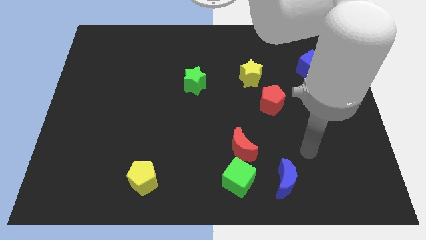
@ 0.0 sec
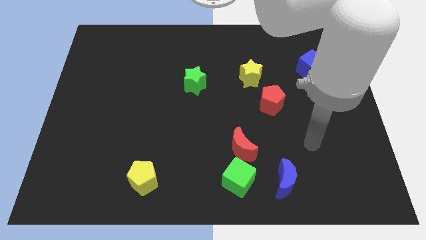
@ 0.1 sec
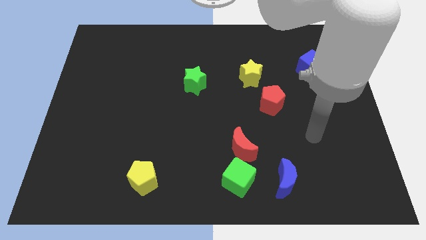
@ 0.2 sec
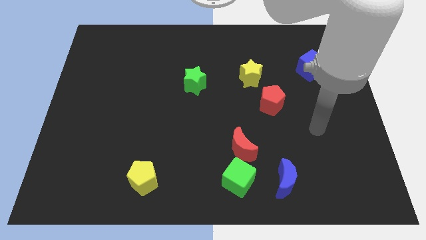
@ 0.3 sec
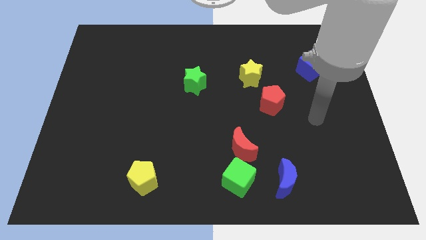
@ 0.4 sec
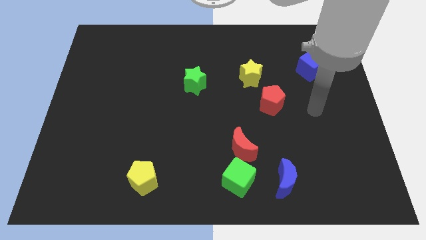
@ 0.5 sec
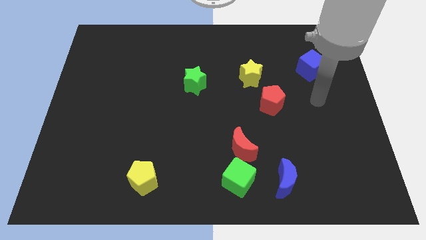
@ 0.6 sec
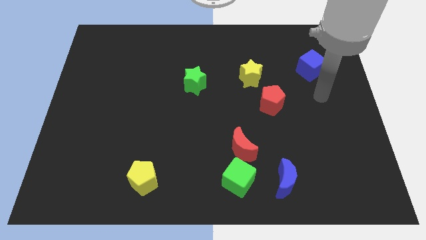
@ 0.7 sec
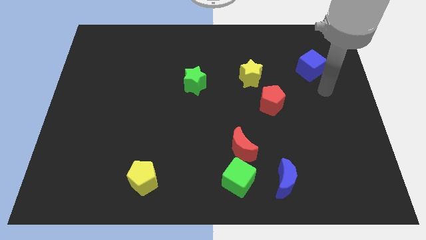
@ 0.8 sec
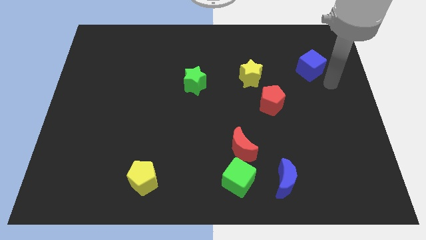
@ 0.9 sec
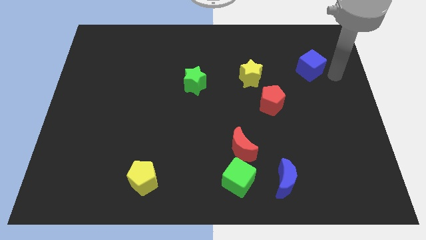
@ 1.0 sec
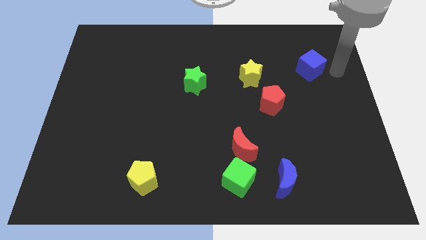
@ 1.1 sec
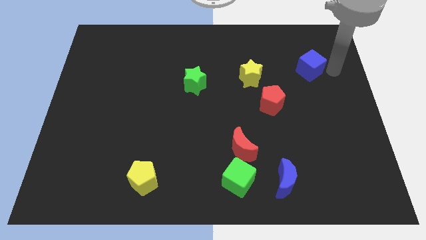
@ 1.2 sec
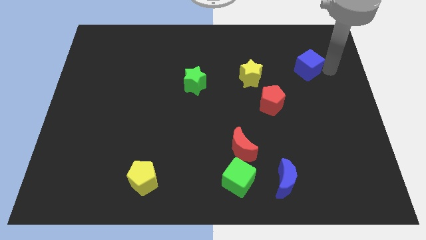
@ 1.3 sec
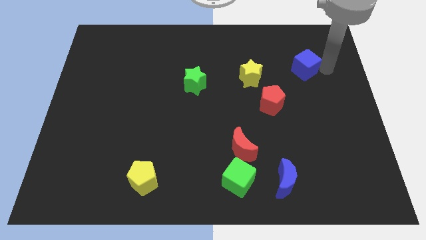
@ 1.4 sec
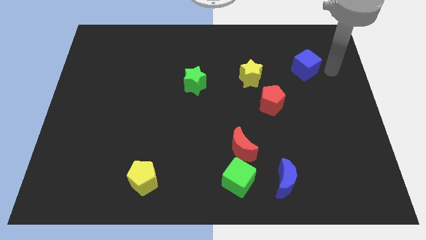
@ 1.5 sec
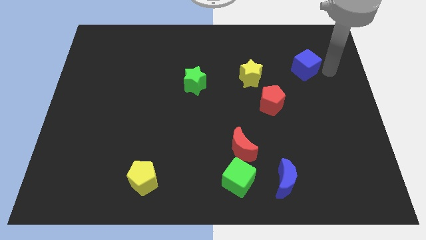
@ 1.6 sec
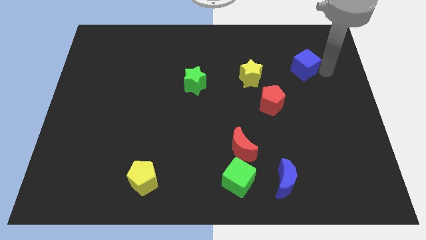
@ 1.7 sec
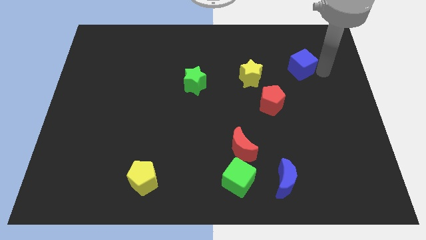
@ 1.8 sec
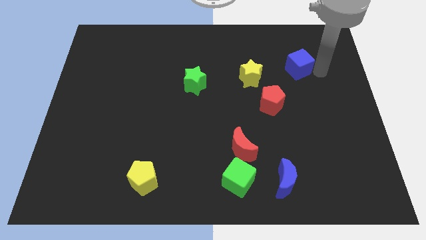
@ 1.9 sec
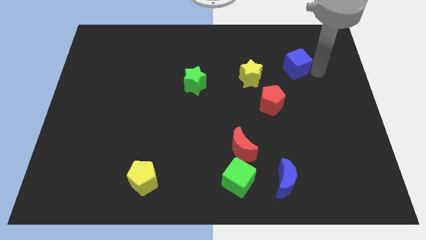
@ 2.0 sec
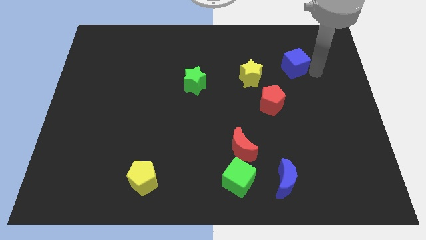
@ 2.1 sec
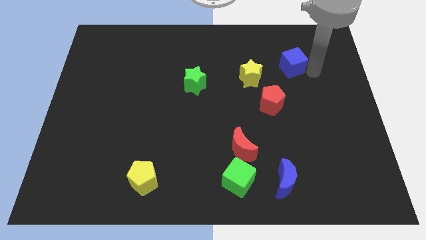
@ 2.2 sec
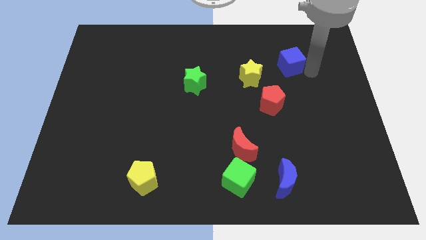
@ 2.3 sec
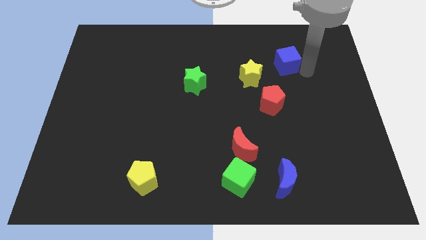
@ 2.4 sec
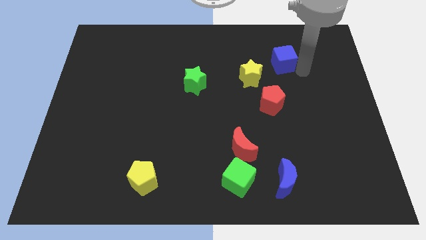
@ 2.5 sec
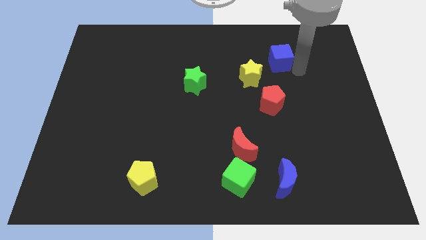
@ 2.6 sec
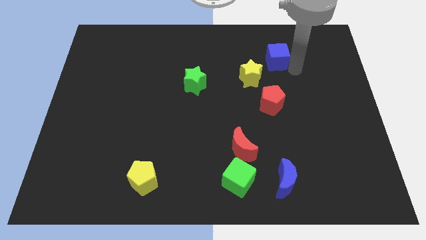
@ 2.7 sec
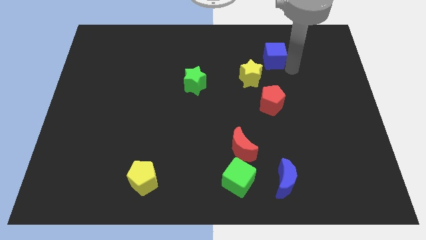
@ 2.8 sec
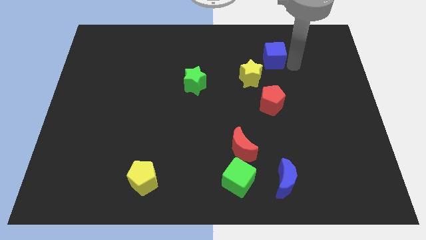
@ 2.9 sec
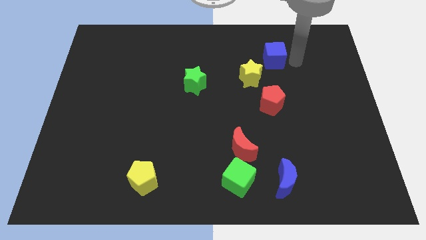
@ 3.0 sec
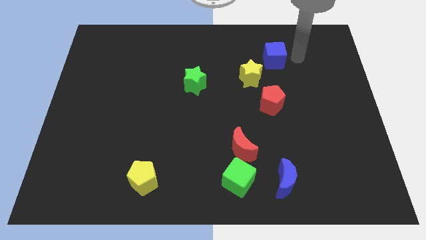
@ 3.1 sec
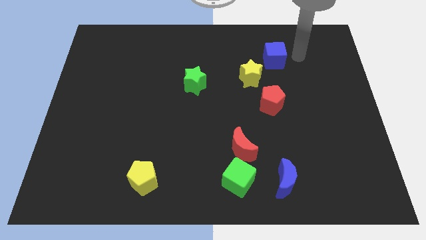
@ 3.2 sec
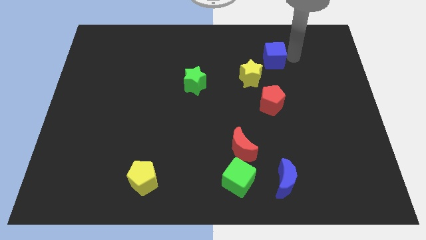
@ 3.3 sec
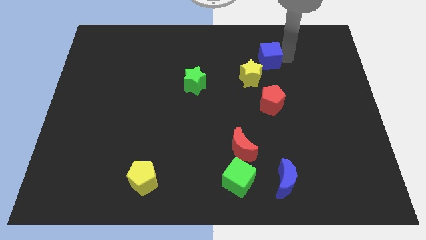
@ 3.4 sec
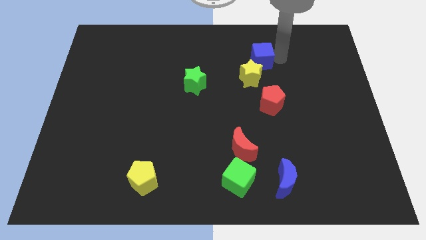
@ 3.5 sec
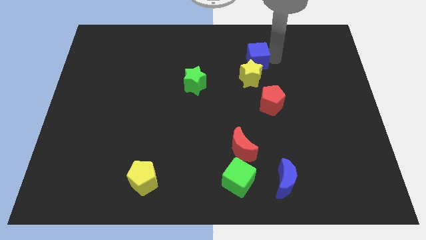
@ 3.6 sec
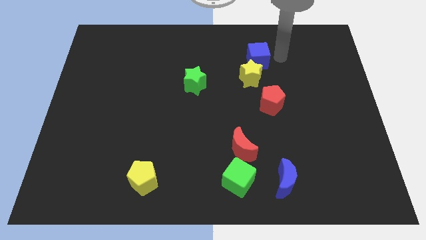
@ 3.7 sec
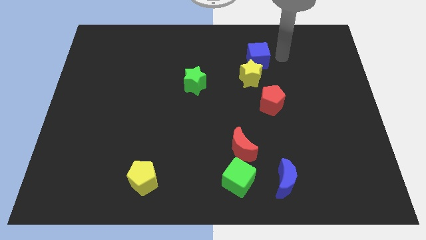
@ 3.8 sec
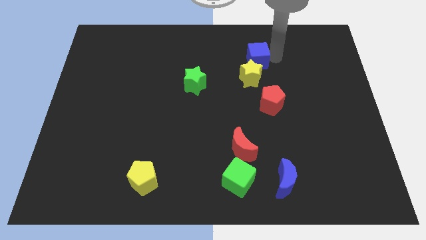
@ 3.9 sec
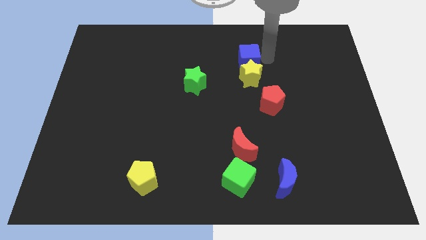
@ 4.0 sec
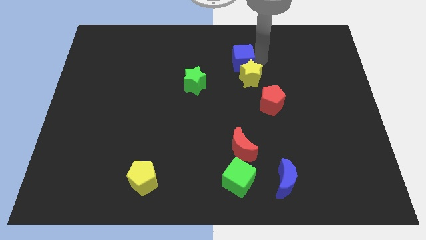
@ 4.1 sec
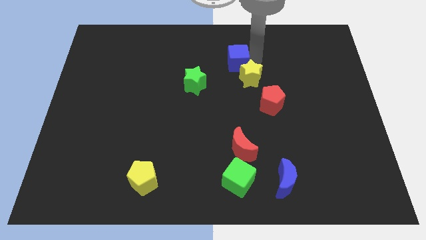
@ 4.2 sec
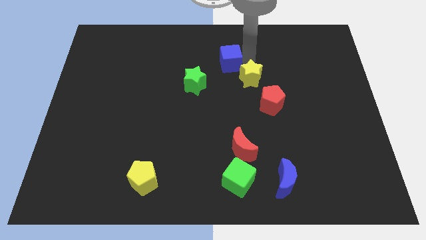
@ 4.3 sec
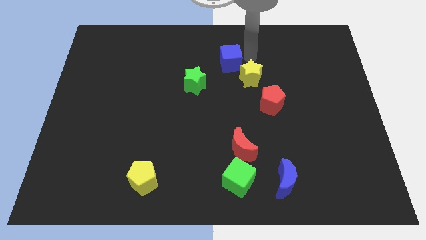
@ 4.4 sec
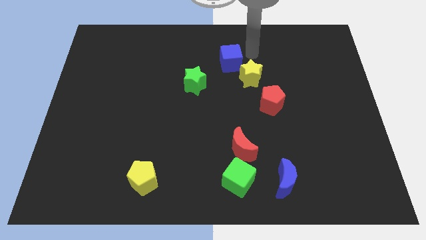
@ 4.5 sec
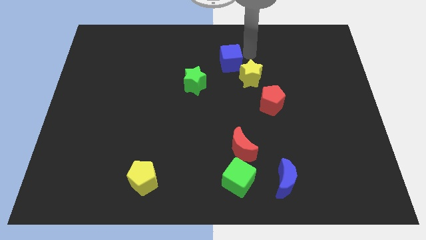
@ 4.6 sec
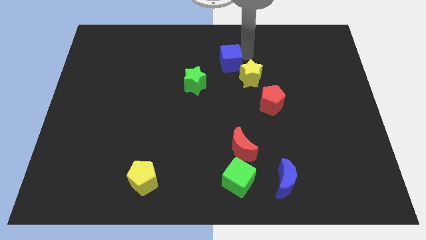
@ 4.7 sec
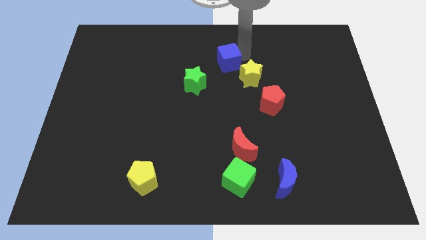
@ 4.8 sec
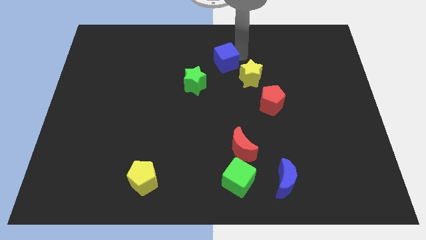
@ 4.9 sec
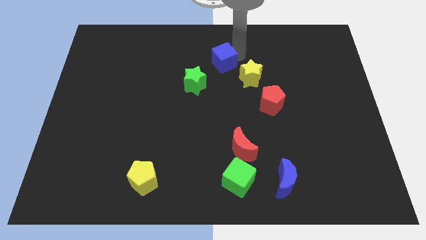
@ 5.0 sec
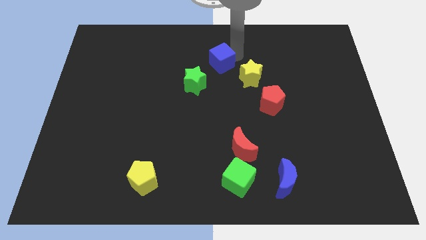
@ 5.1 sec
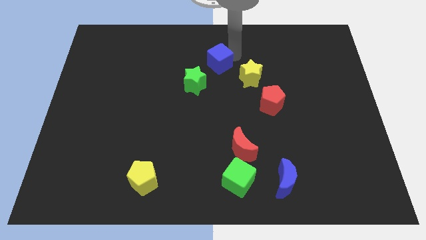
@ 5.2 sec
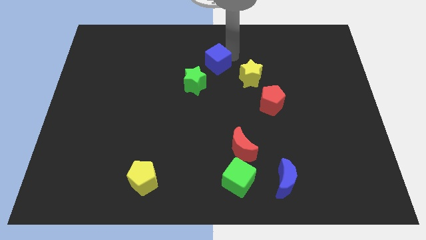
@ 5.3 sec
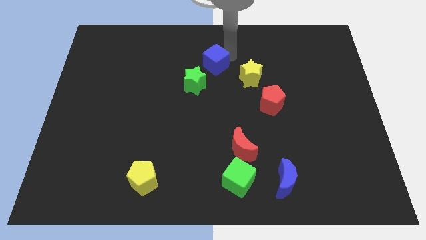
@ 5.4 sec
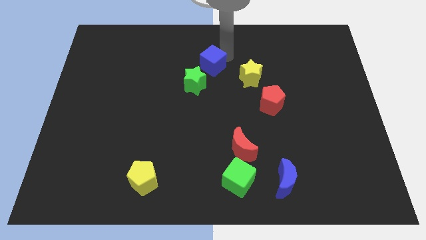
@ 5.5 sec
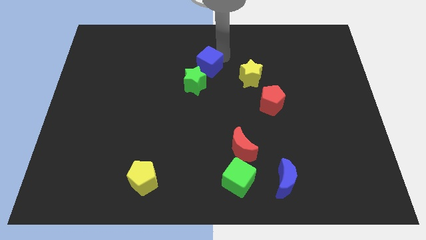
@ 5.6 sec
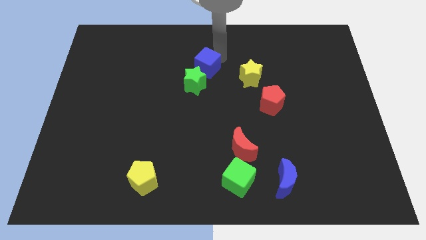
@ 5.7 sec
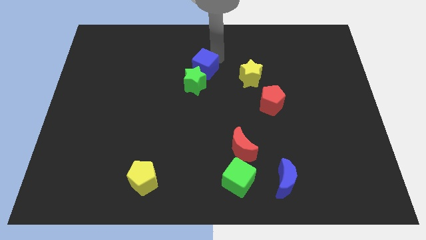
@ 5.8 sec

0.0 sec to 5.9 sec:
move the blue cube to the green star

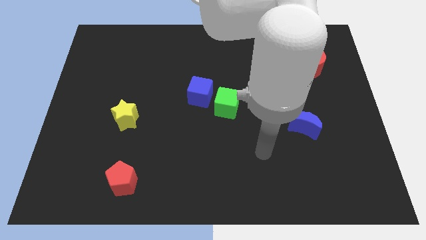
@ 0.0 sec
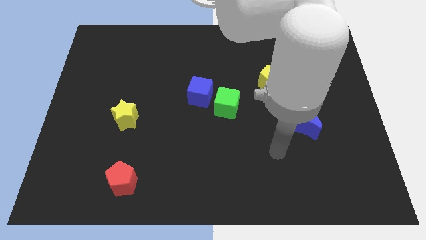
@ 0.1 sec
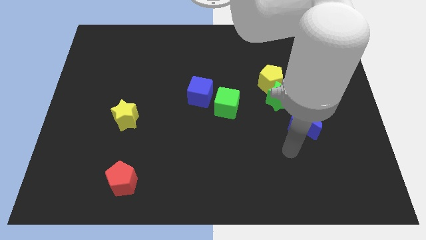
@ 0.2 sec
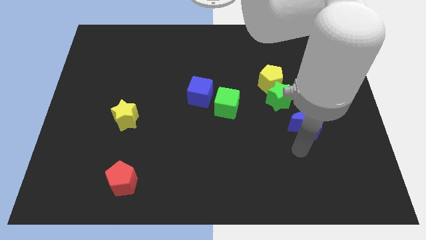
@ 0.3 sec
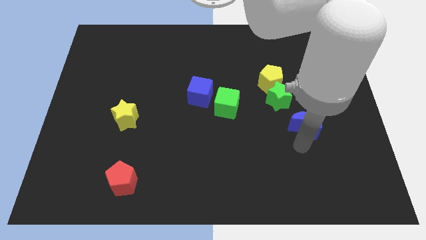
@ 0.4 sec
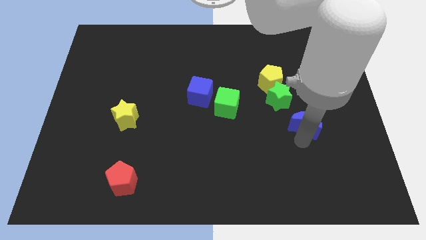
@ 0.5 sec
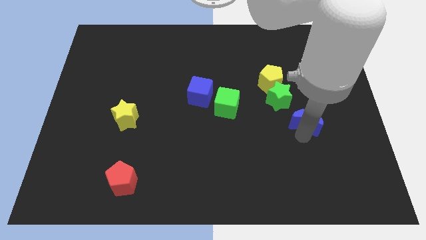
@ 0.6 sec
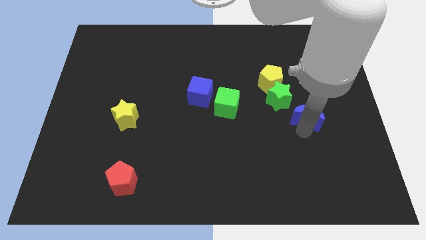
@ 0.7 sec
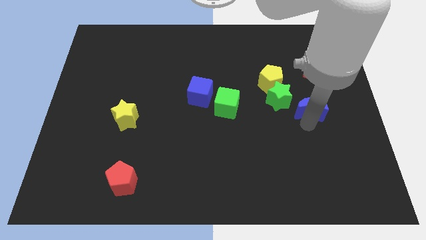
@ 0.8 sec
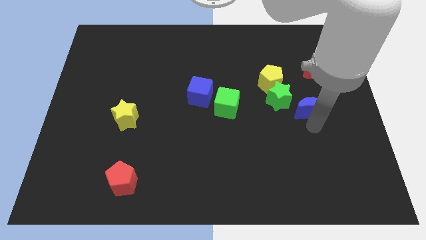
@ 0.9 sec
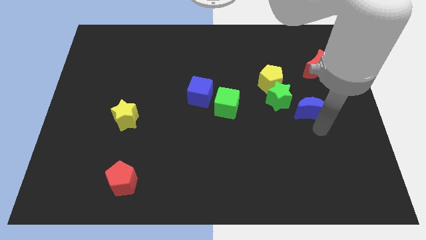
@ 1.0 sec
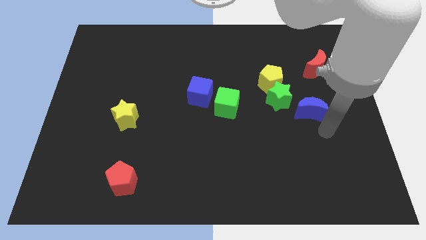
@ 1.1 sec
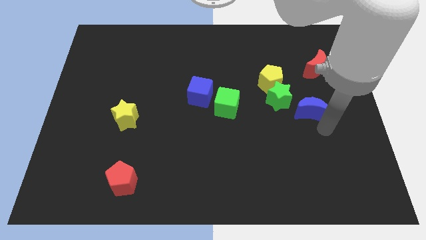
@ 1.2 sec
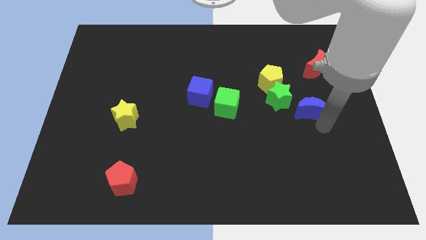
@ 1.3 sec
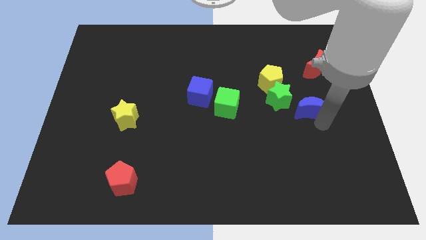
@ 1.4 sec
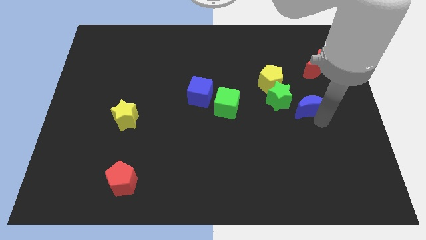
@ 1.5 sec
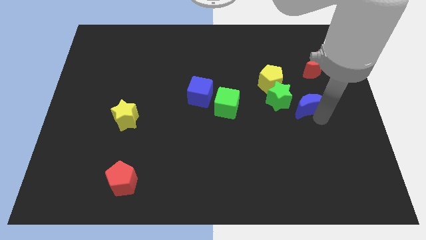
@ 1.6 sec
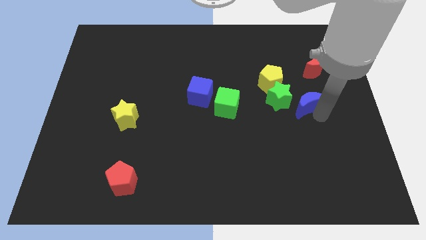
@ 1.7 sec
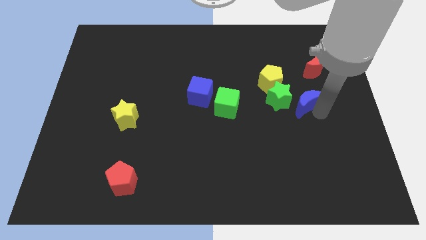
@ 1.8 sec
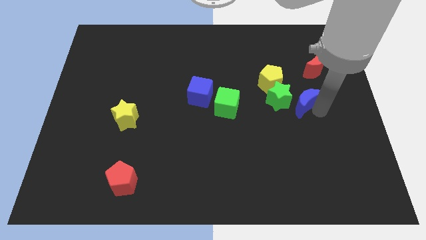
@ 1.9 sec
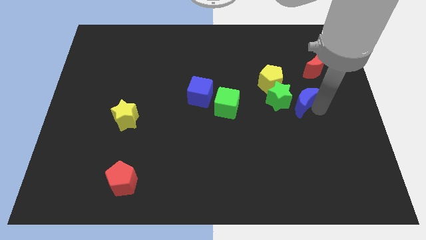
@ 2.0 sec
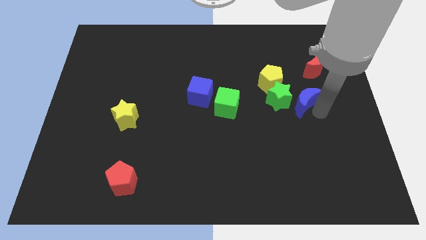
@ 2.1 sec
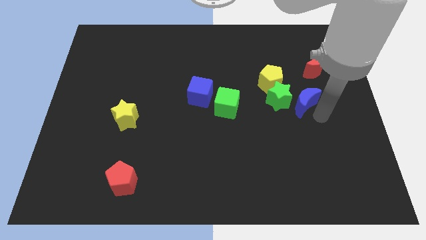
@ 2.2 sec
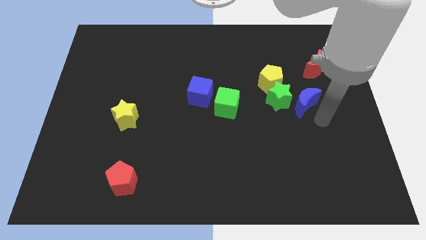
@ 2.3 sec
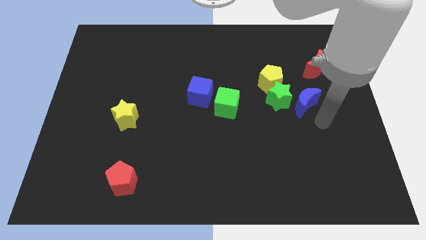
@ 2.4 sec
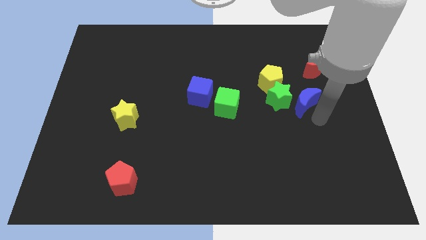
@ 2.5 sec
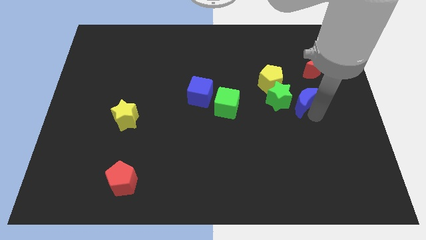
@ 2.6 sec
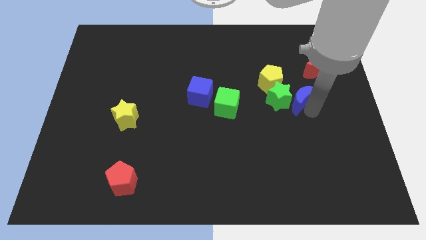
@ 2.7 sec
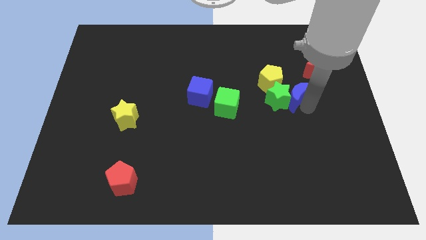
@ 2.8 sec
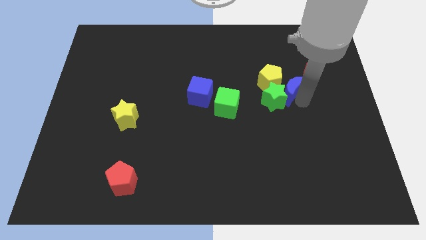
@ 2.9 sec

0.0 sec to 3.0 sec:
push the blue moon close to the yellow pentagon
